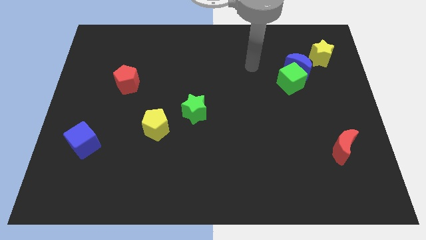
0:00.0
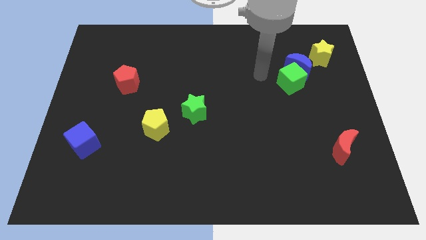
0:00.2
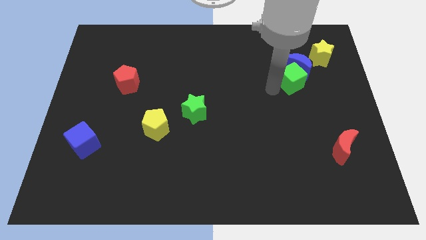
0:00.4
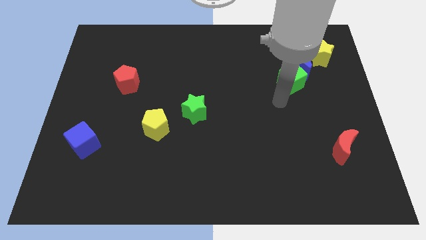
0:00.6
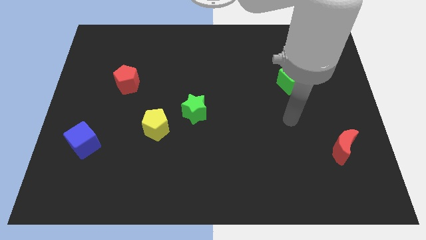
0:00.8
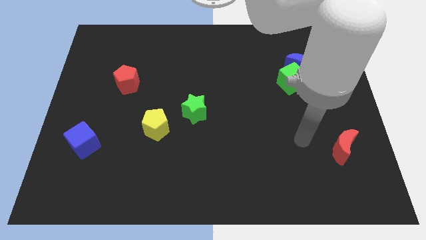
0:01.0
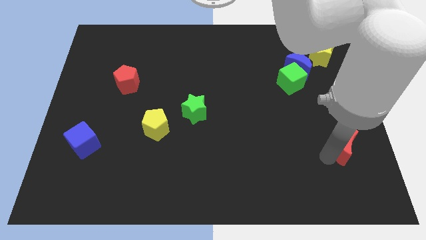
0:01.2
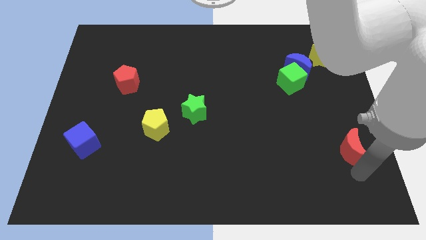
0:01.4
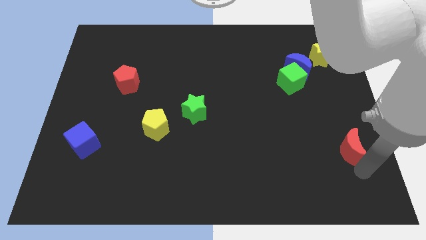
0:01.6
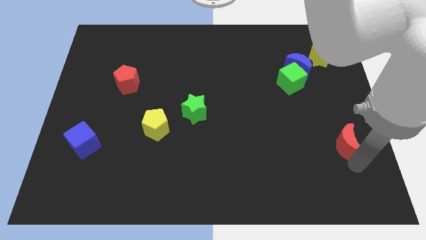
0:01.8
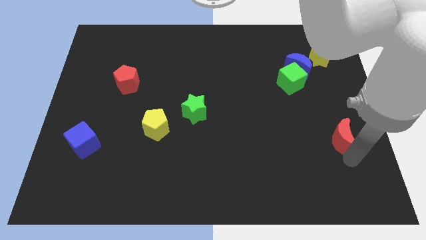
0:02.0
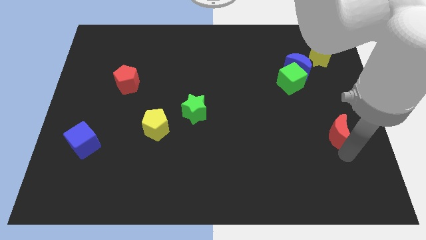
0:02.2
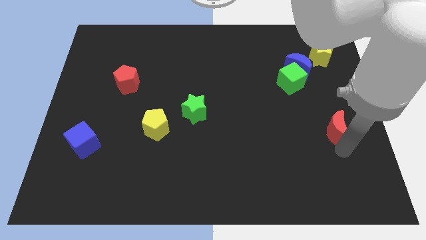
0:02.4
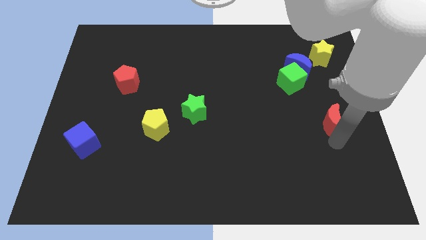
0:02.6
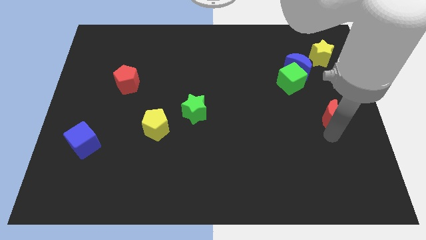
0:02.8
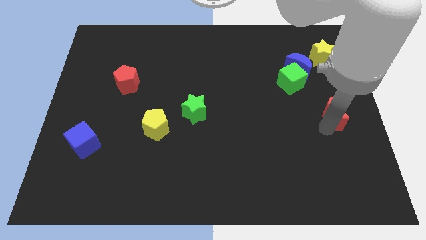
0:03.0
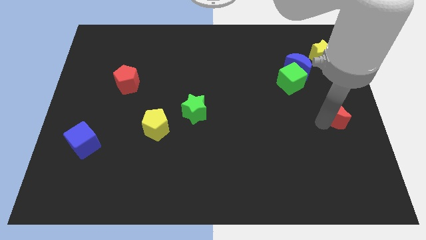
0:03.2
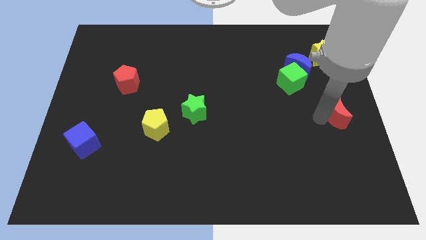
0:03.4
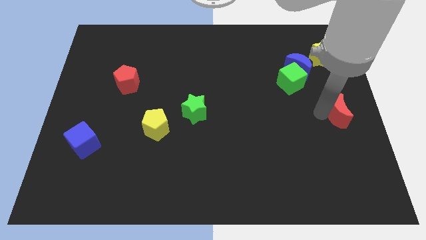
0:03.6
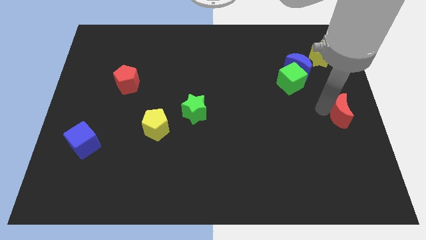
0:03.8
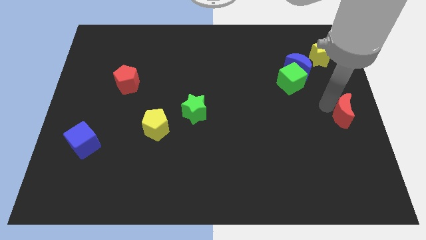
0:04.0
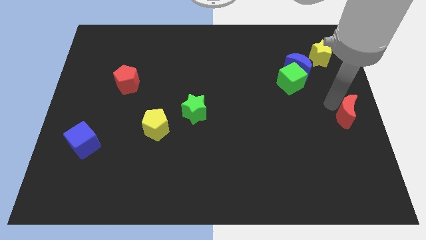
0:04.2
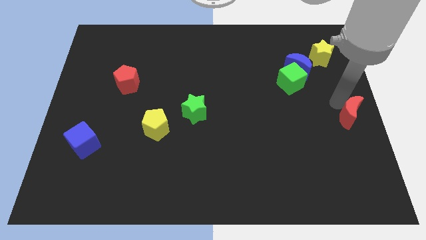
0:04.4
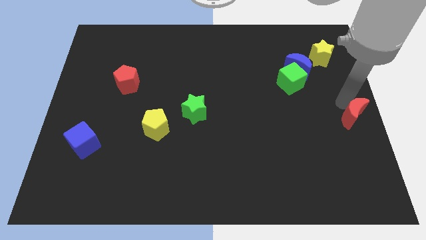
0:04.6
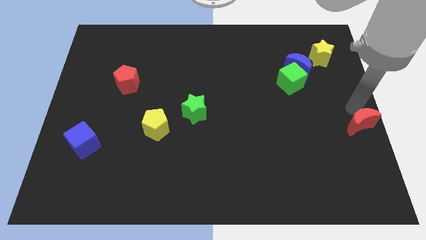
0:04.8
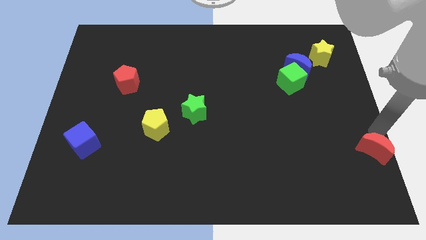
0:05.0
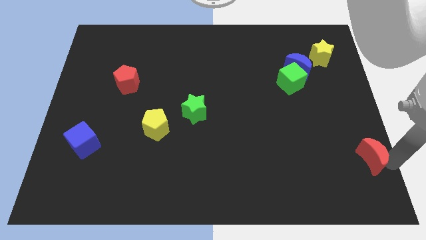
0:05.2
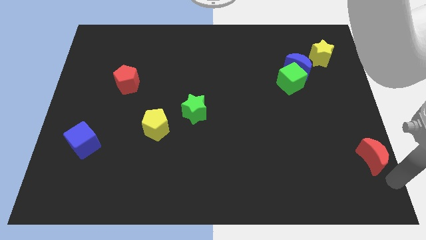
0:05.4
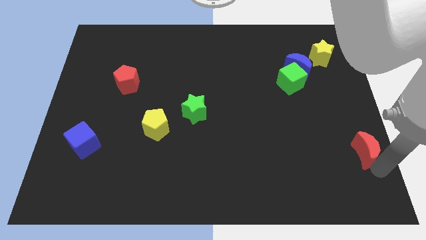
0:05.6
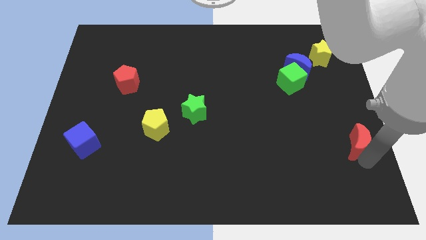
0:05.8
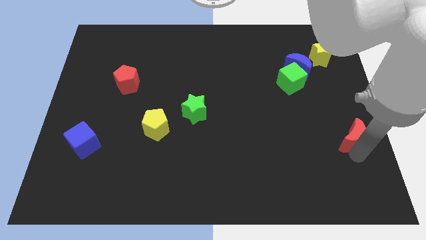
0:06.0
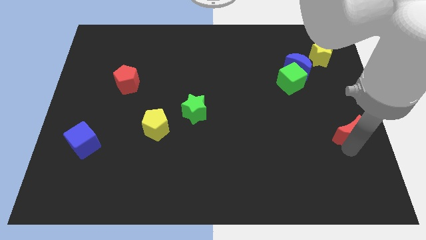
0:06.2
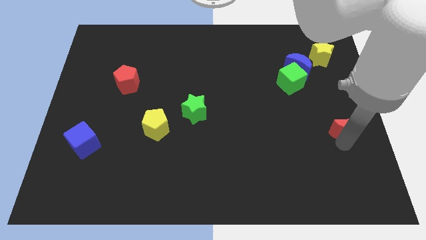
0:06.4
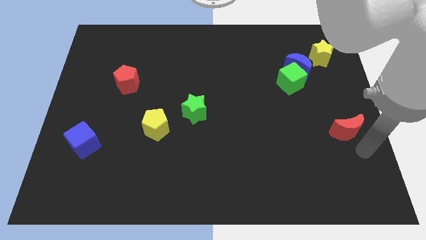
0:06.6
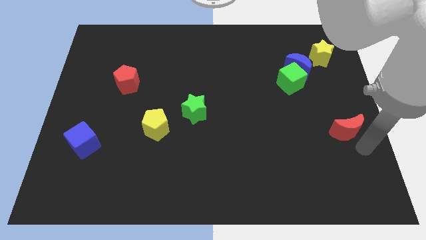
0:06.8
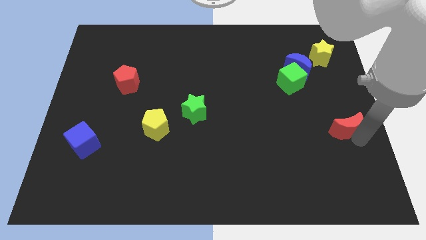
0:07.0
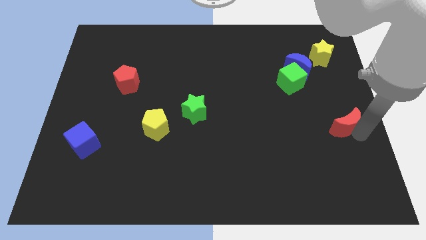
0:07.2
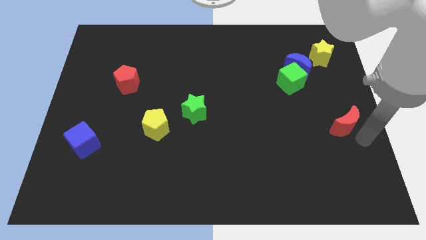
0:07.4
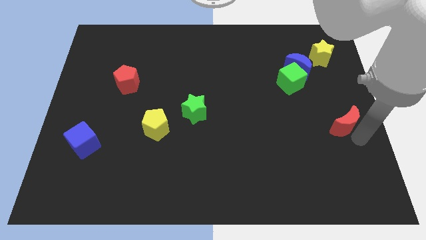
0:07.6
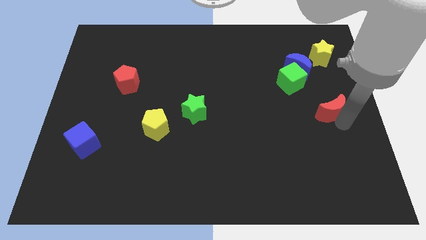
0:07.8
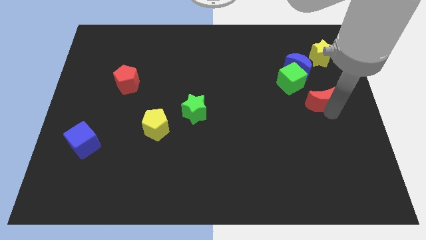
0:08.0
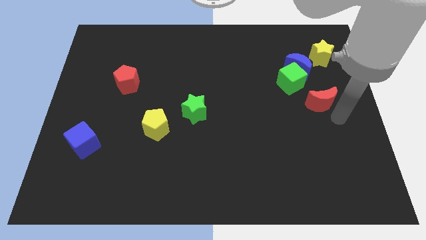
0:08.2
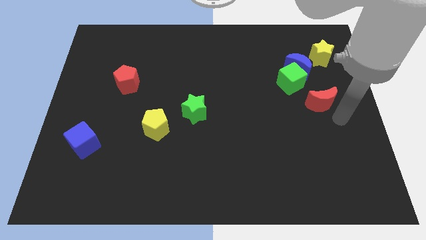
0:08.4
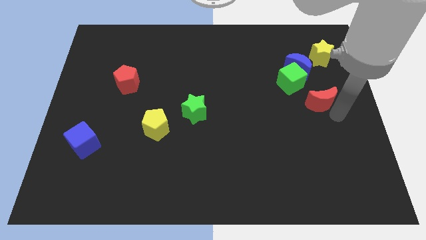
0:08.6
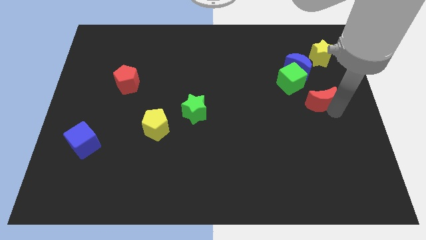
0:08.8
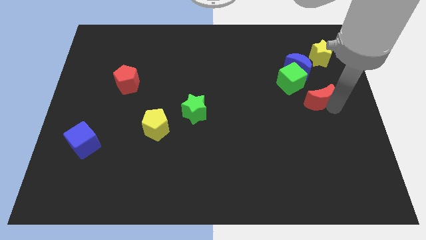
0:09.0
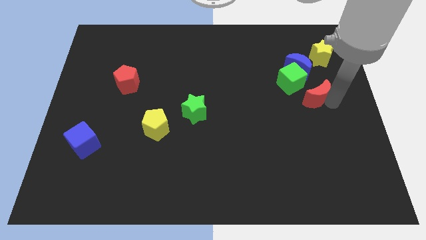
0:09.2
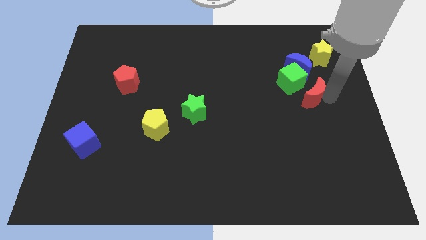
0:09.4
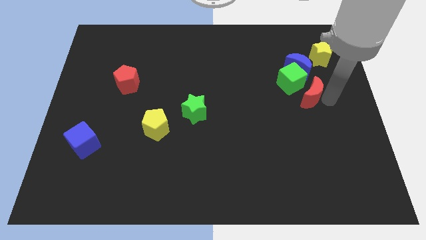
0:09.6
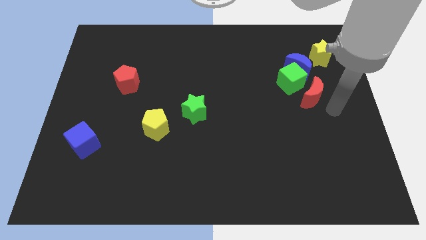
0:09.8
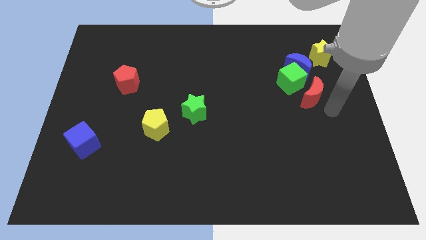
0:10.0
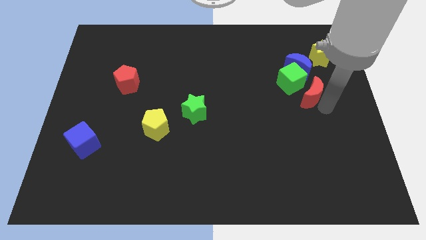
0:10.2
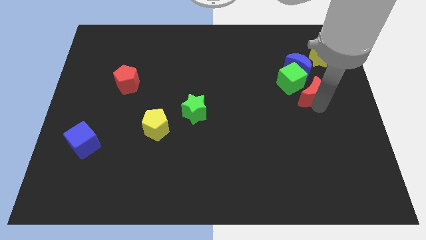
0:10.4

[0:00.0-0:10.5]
move the red moon to the green cube

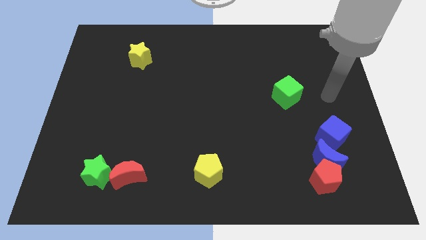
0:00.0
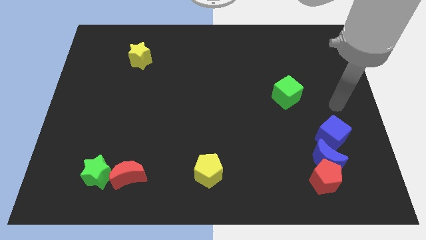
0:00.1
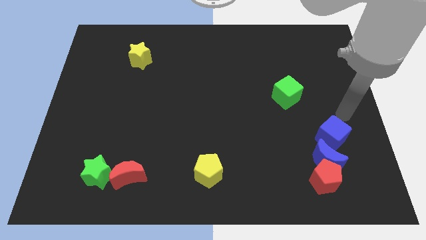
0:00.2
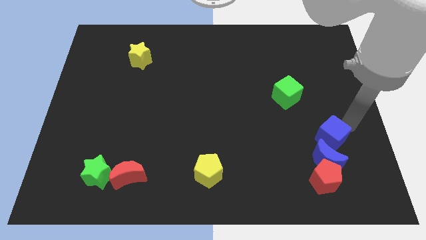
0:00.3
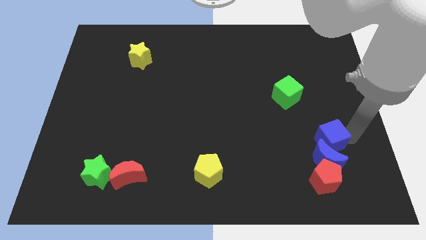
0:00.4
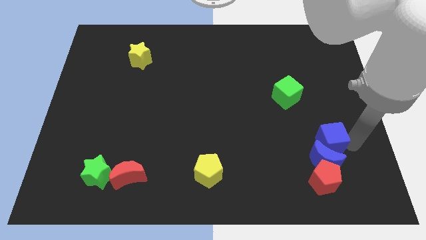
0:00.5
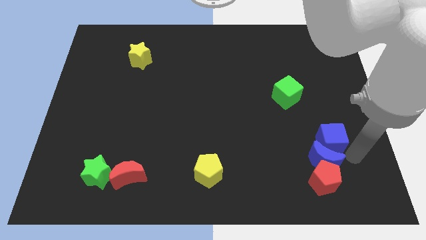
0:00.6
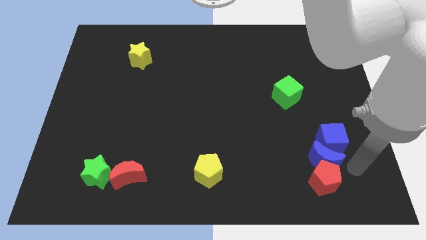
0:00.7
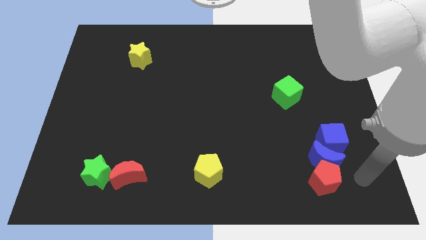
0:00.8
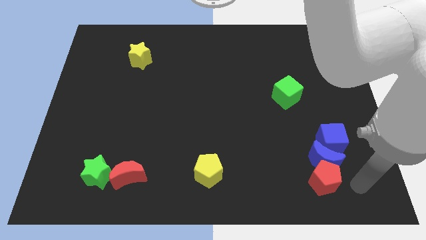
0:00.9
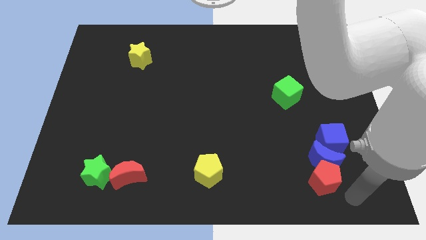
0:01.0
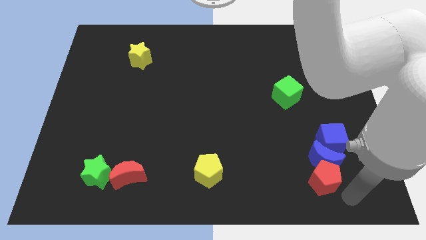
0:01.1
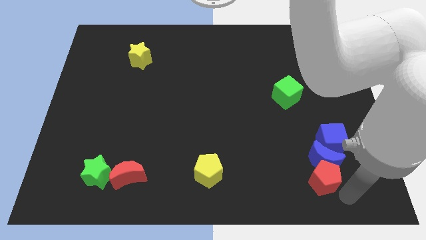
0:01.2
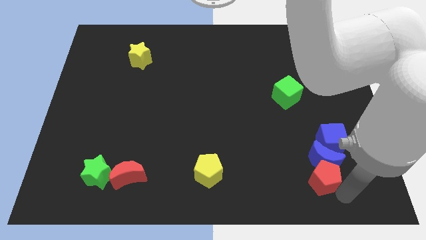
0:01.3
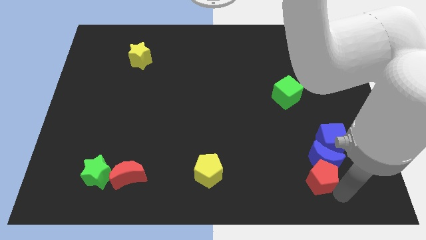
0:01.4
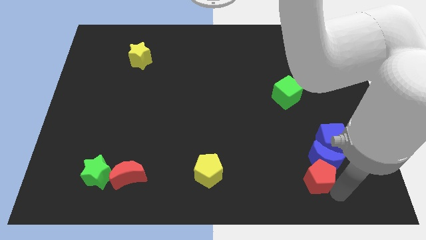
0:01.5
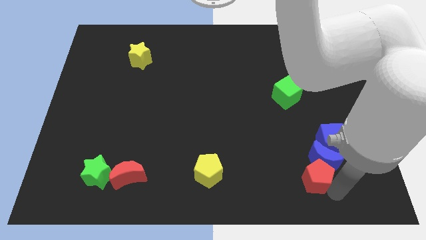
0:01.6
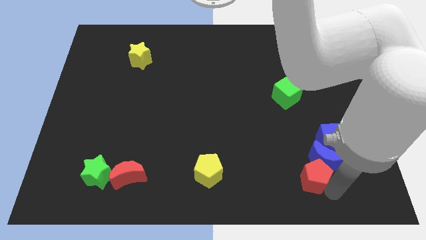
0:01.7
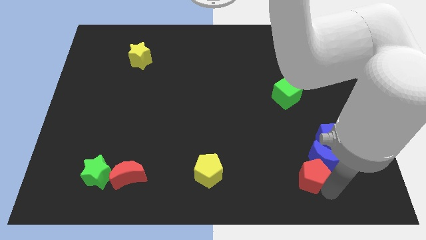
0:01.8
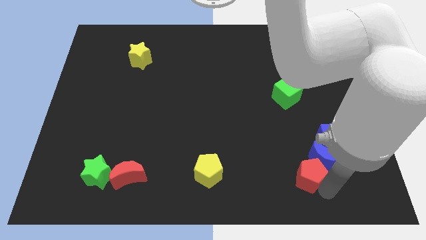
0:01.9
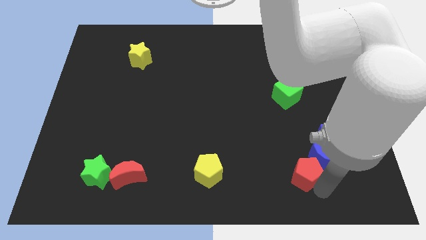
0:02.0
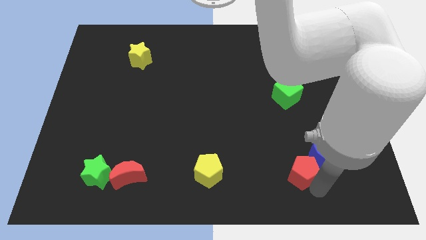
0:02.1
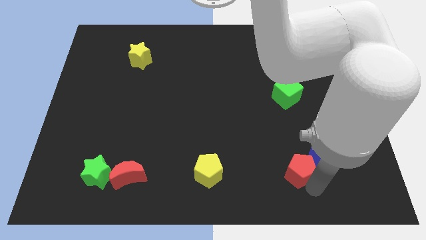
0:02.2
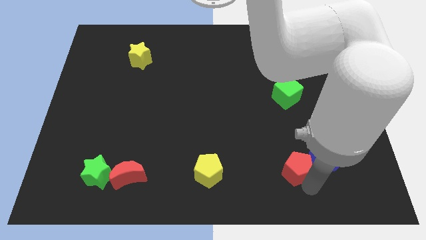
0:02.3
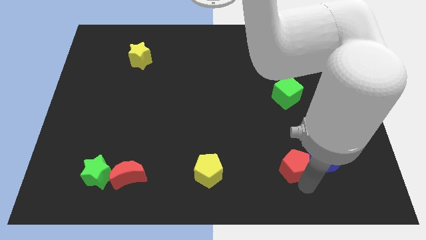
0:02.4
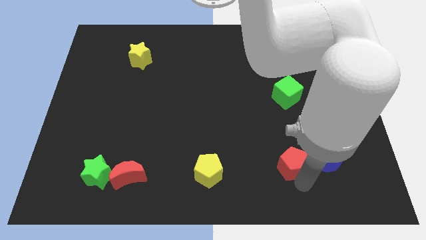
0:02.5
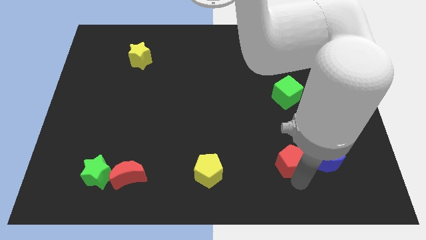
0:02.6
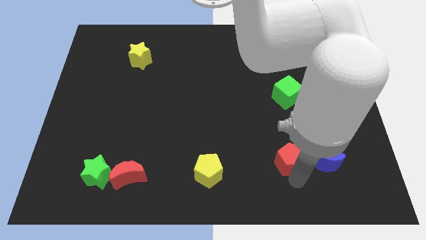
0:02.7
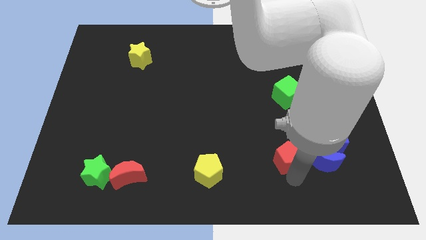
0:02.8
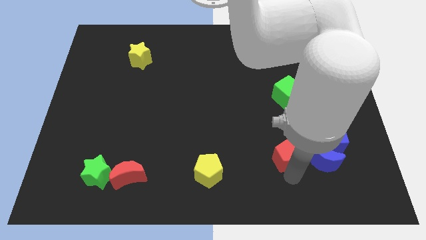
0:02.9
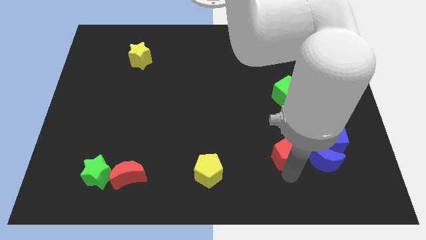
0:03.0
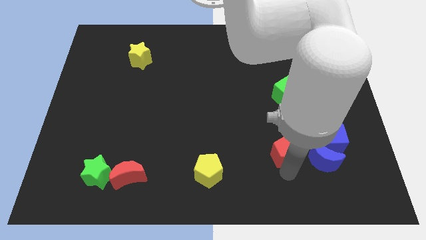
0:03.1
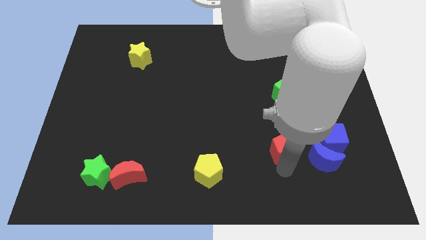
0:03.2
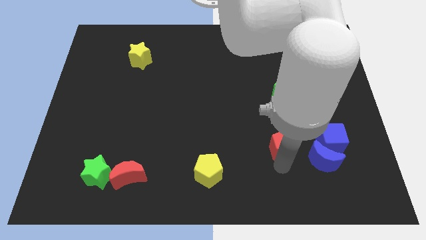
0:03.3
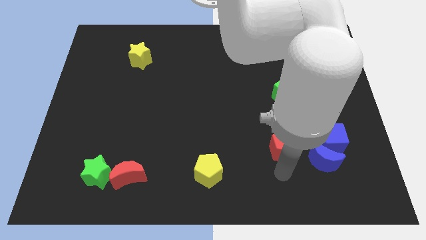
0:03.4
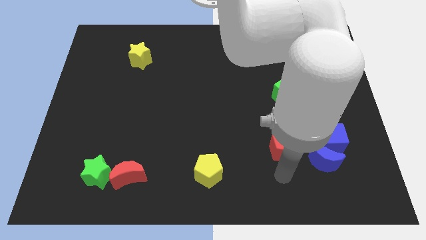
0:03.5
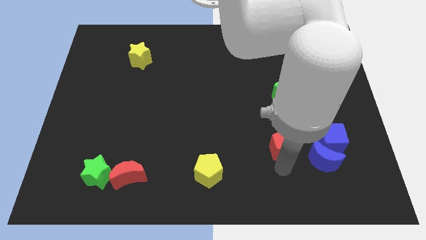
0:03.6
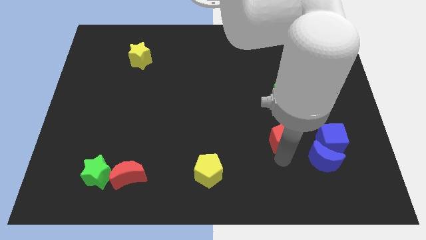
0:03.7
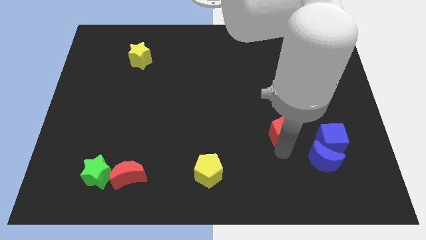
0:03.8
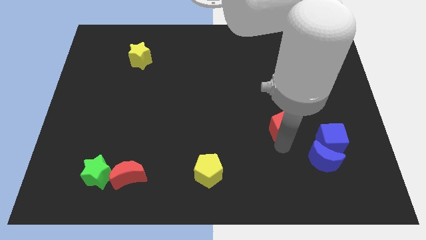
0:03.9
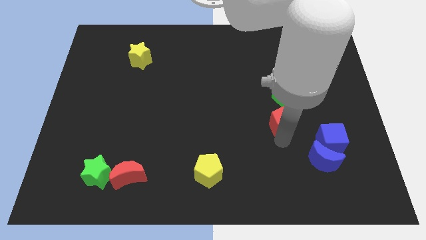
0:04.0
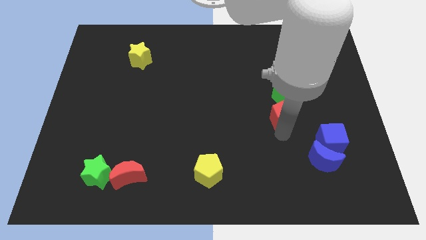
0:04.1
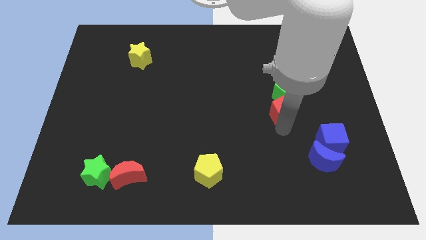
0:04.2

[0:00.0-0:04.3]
push the red pentagon to the green cube
